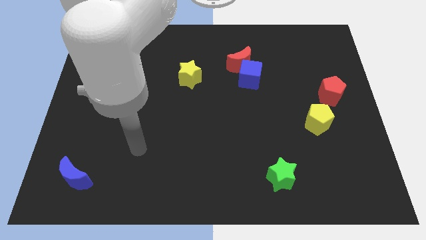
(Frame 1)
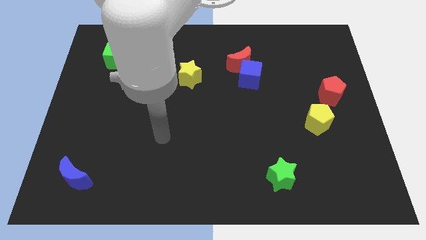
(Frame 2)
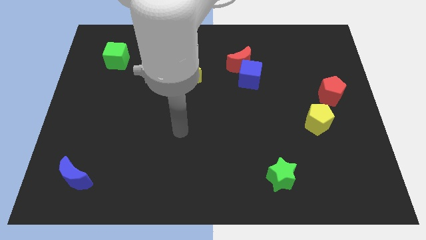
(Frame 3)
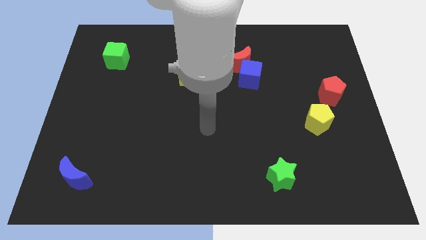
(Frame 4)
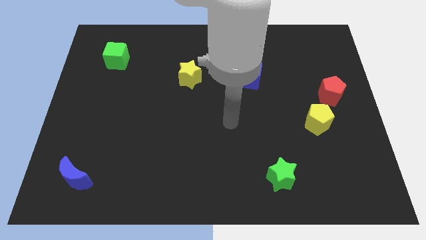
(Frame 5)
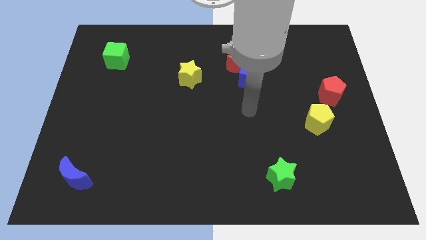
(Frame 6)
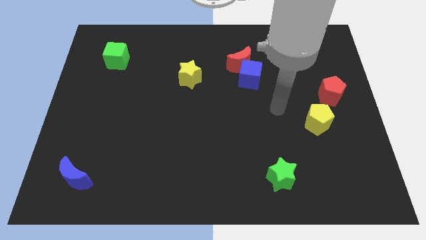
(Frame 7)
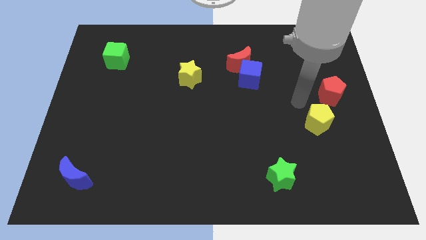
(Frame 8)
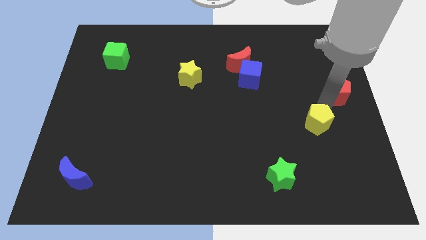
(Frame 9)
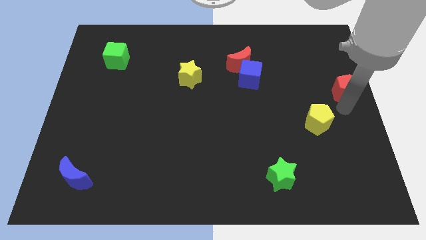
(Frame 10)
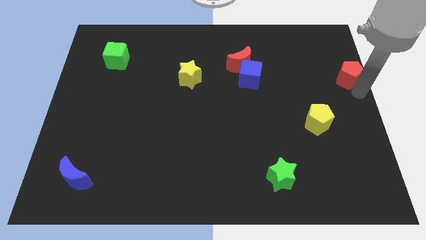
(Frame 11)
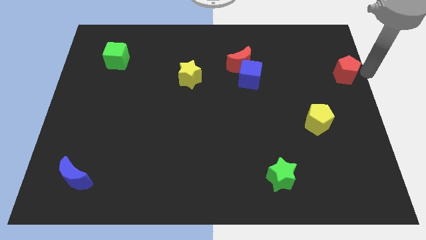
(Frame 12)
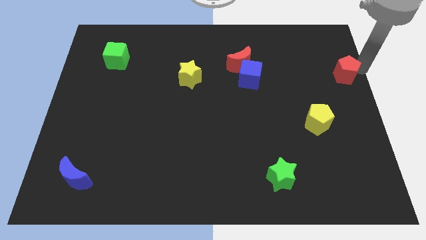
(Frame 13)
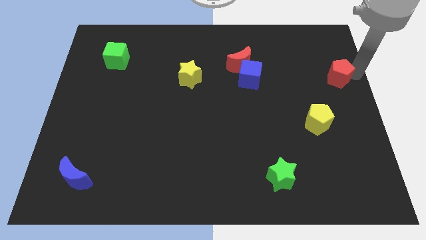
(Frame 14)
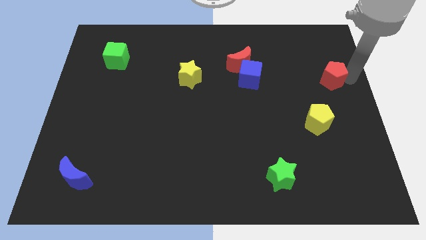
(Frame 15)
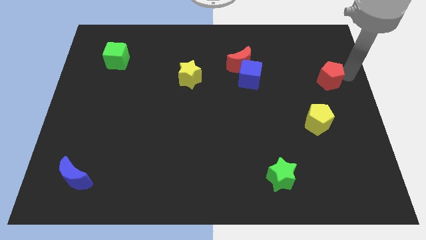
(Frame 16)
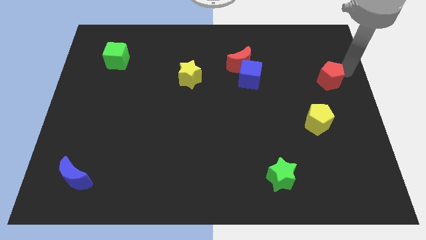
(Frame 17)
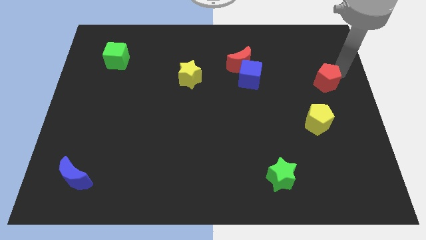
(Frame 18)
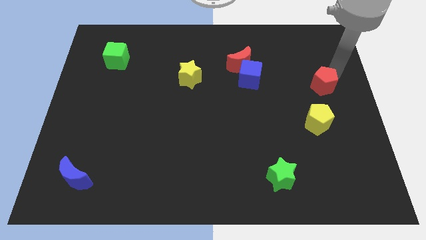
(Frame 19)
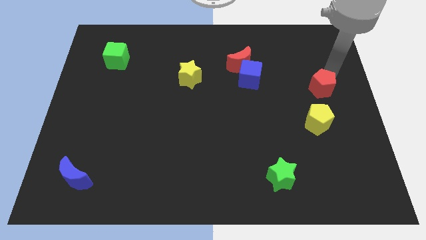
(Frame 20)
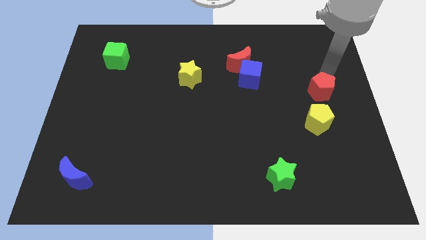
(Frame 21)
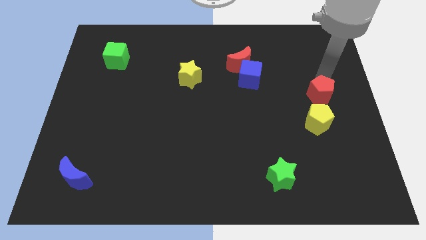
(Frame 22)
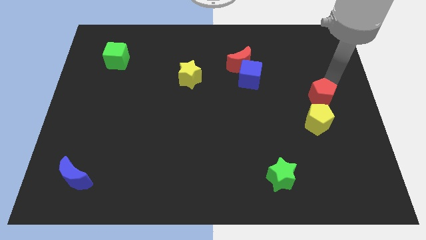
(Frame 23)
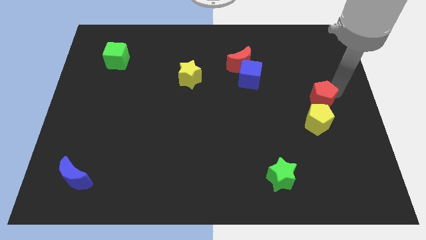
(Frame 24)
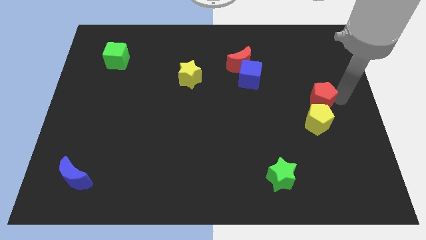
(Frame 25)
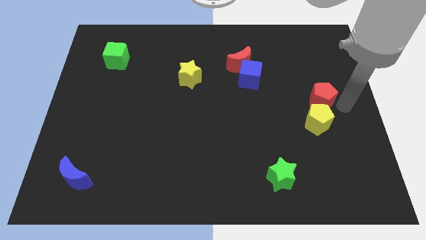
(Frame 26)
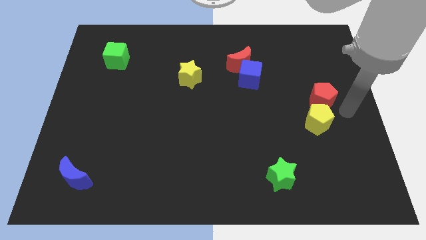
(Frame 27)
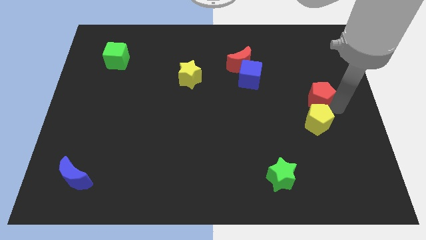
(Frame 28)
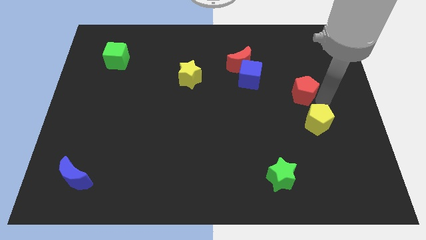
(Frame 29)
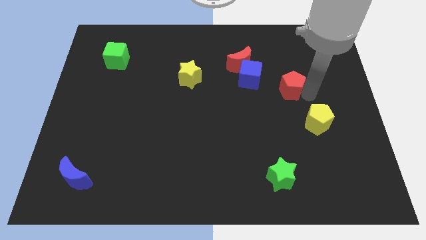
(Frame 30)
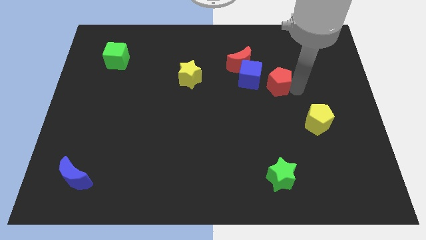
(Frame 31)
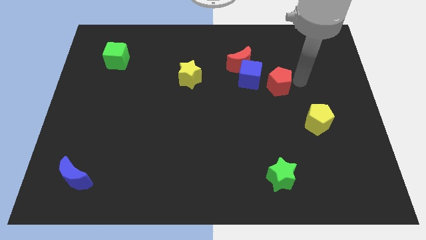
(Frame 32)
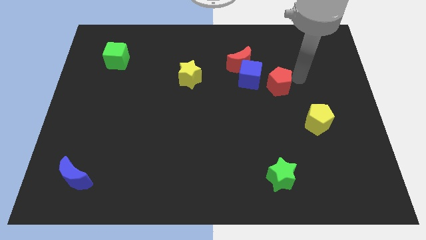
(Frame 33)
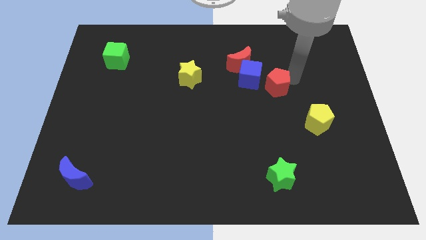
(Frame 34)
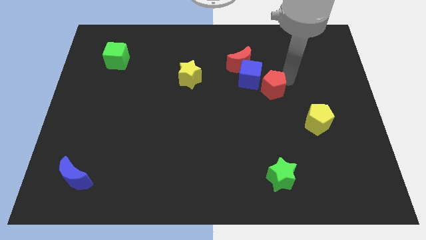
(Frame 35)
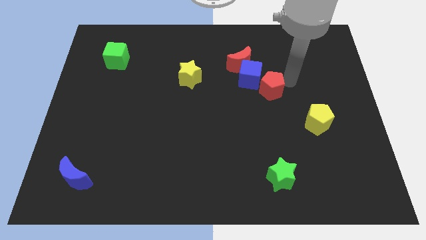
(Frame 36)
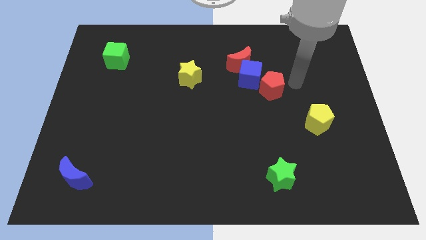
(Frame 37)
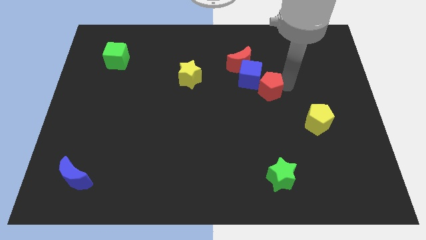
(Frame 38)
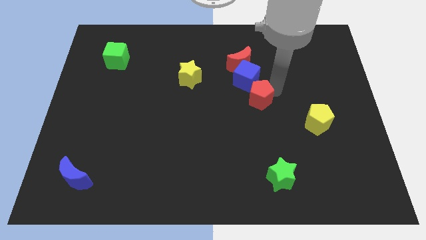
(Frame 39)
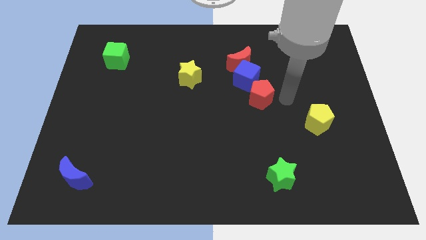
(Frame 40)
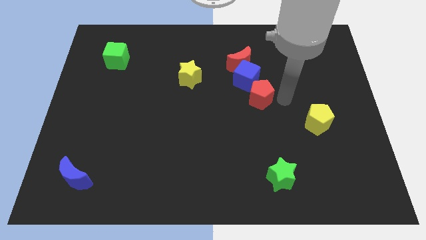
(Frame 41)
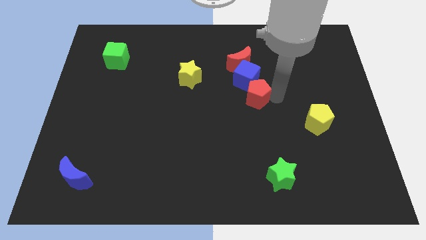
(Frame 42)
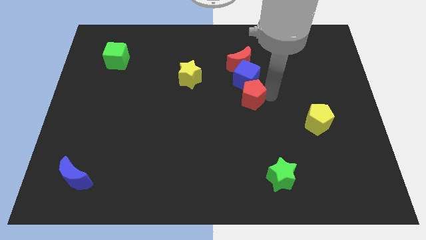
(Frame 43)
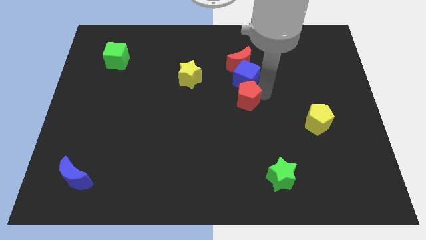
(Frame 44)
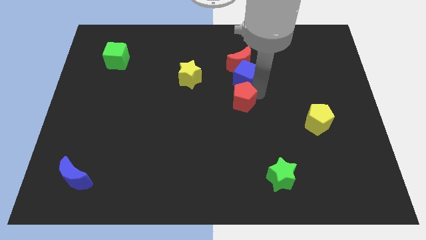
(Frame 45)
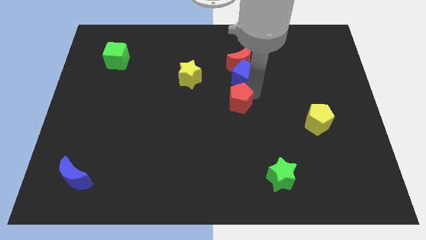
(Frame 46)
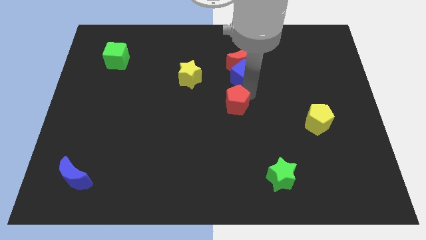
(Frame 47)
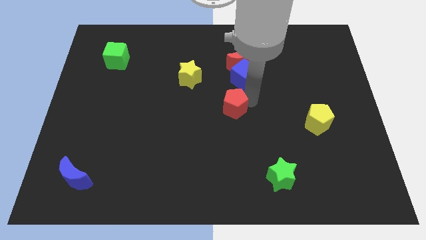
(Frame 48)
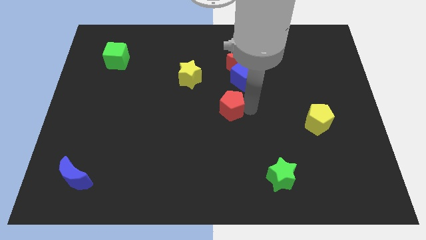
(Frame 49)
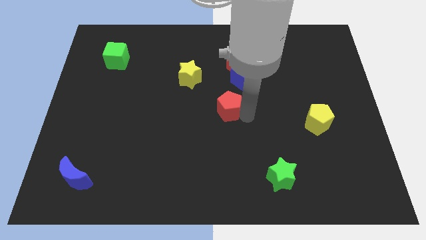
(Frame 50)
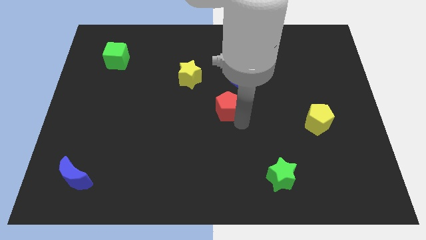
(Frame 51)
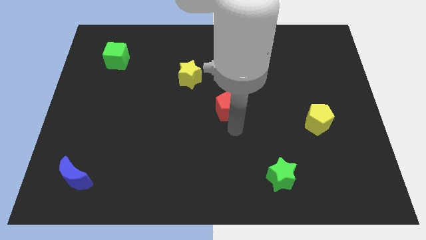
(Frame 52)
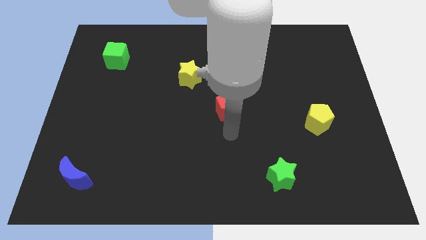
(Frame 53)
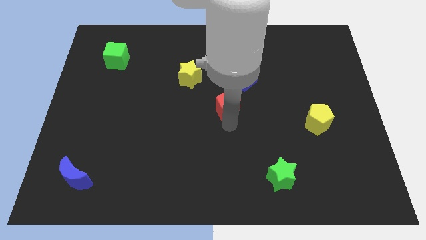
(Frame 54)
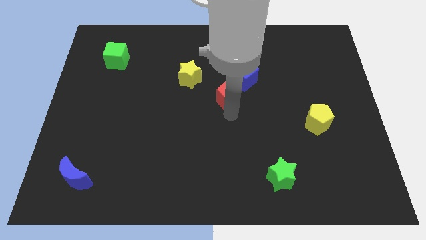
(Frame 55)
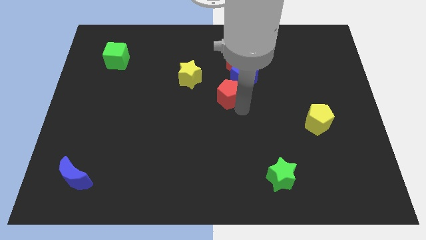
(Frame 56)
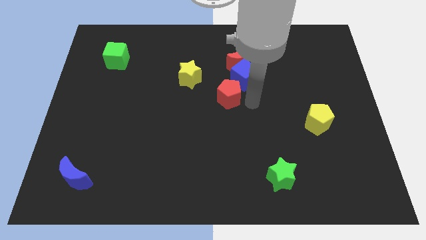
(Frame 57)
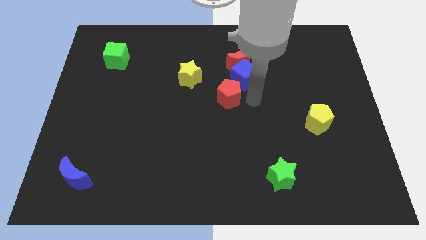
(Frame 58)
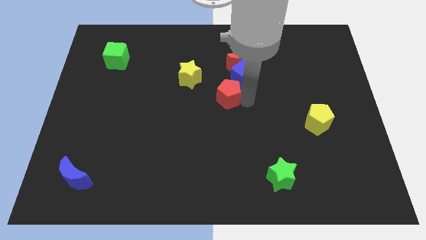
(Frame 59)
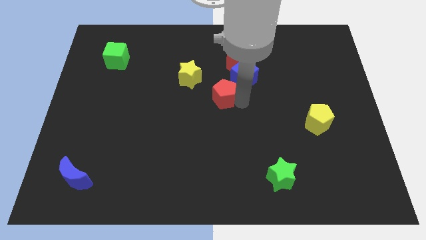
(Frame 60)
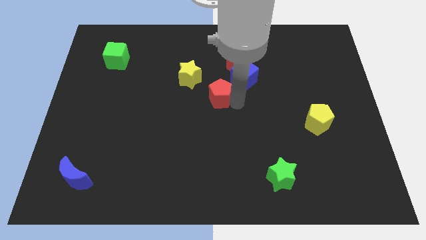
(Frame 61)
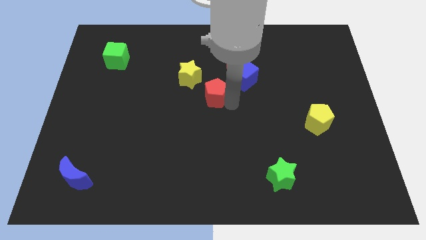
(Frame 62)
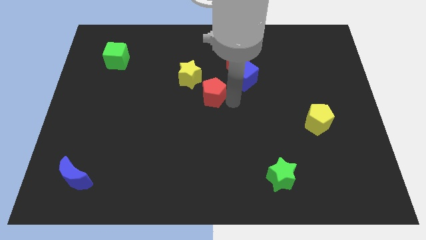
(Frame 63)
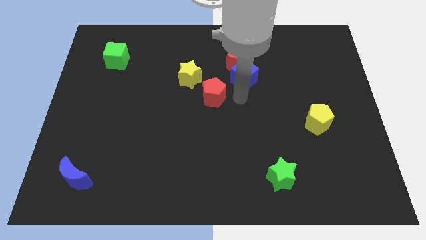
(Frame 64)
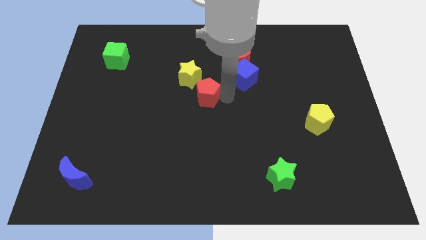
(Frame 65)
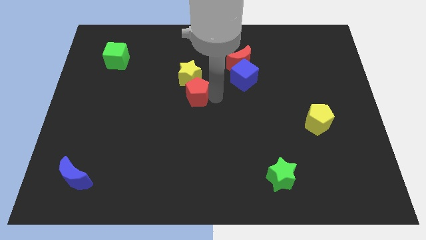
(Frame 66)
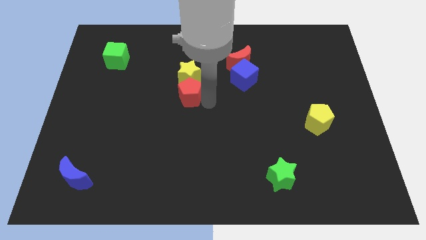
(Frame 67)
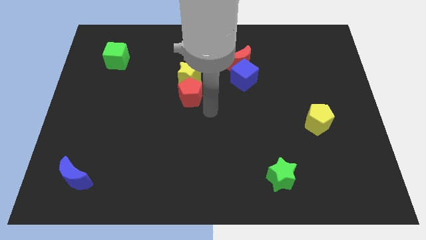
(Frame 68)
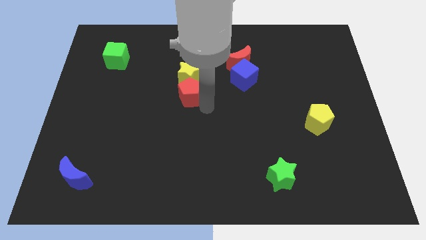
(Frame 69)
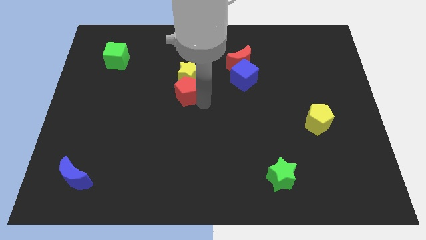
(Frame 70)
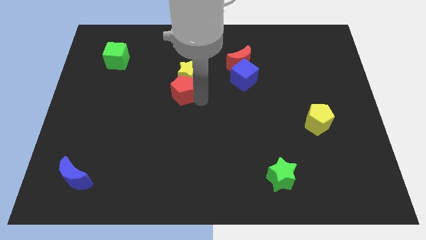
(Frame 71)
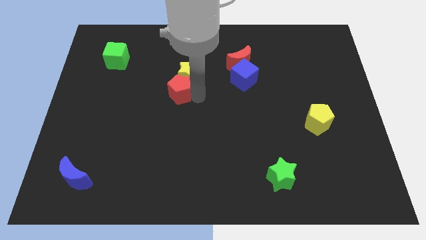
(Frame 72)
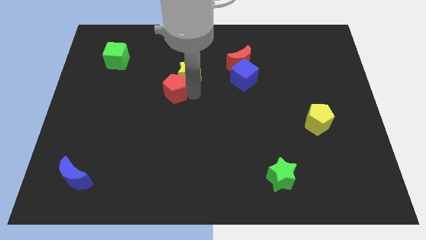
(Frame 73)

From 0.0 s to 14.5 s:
slide the red pentagon to the left of the yellow star
